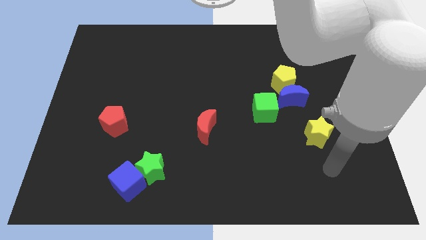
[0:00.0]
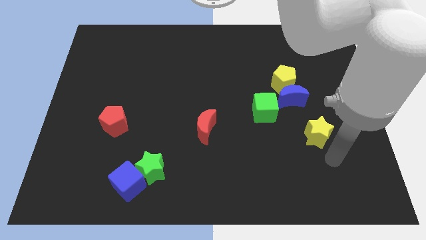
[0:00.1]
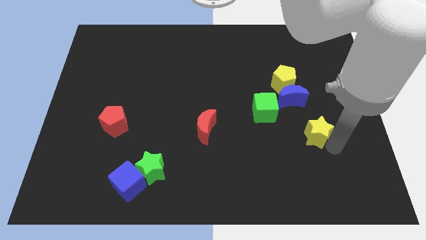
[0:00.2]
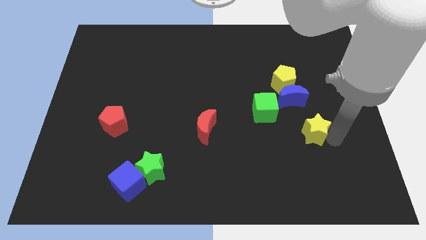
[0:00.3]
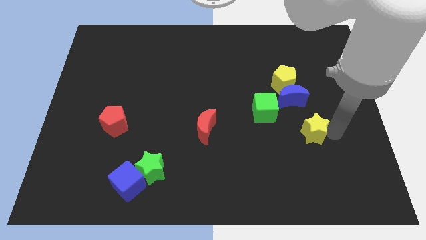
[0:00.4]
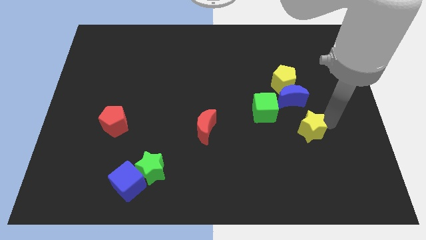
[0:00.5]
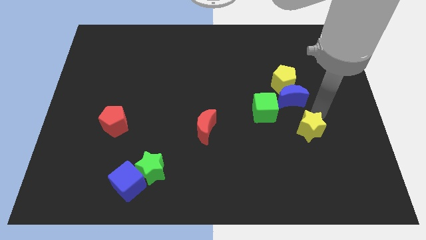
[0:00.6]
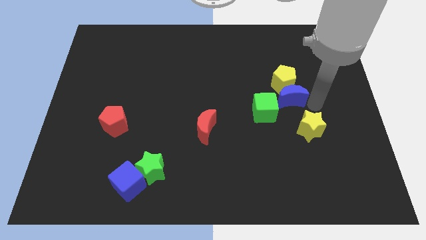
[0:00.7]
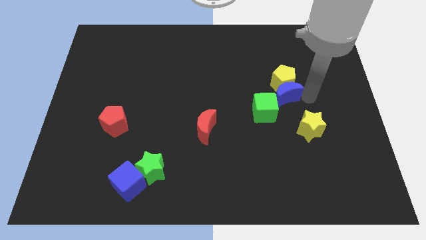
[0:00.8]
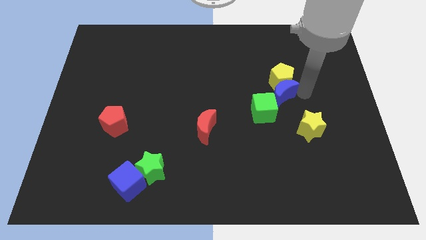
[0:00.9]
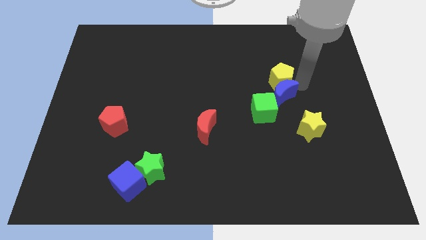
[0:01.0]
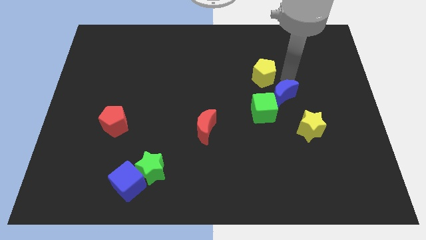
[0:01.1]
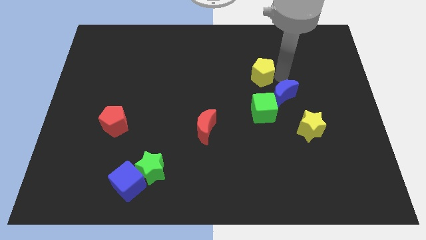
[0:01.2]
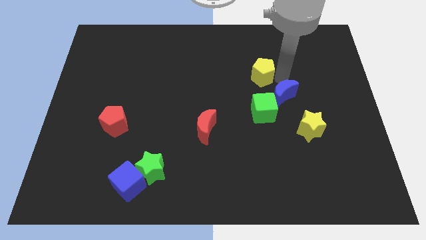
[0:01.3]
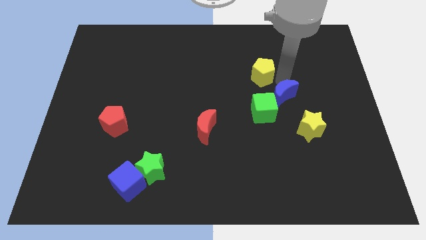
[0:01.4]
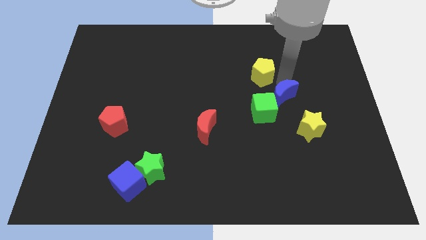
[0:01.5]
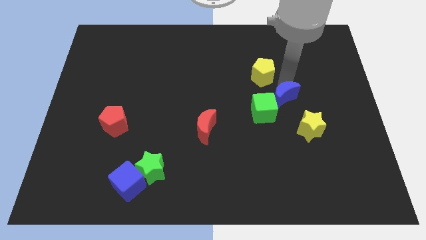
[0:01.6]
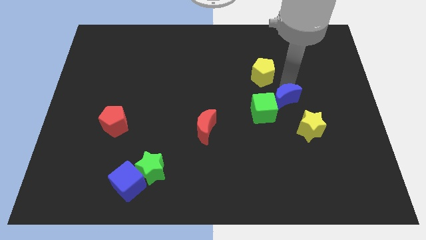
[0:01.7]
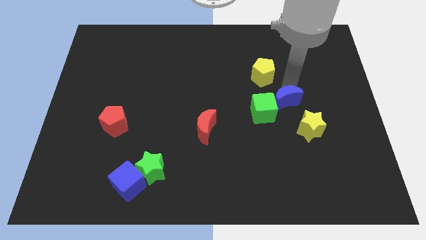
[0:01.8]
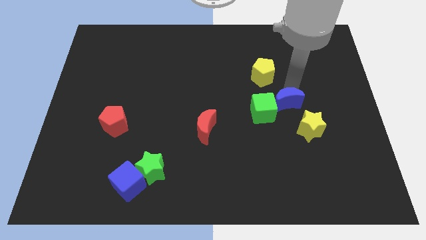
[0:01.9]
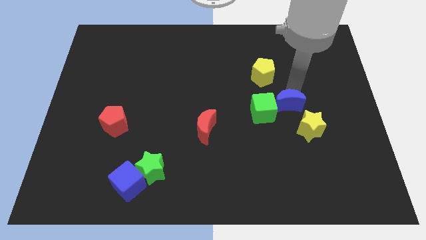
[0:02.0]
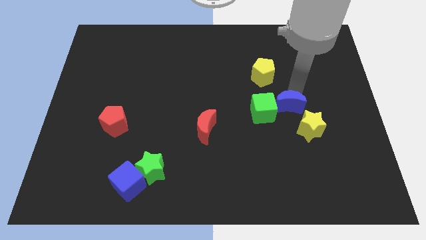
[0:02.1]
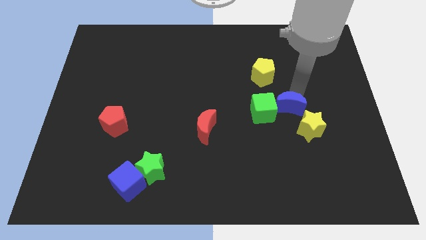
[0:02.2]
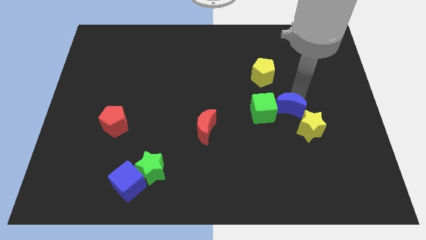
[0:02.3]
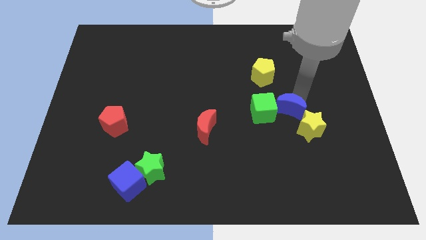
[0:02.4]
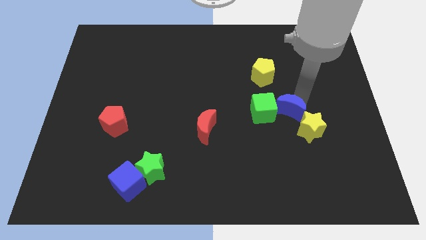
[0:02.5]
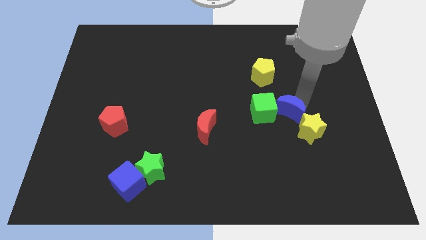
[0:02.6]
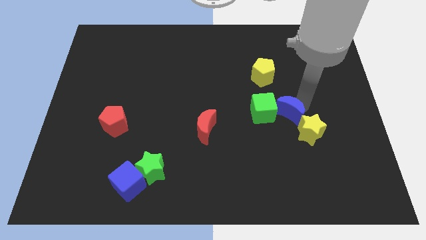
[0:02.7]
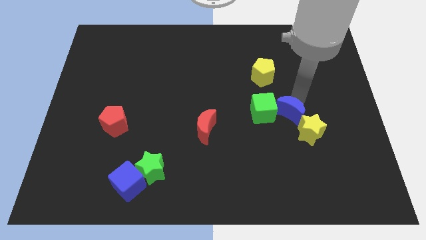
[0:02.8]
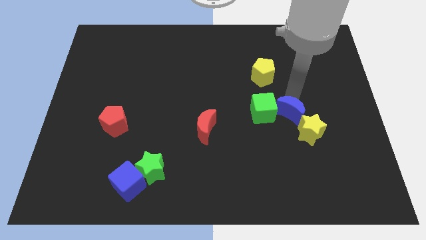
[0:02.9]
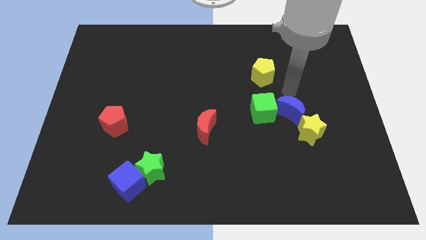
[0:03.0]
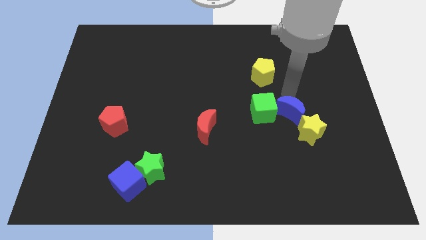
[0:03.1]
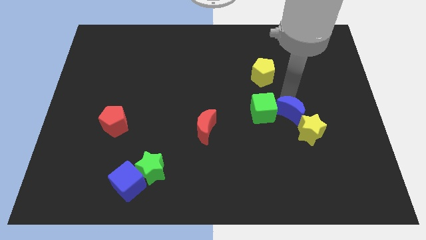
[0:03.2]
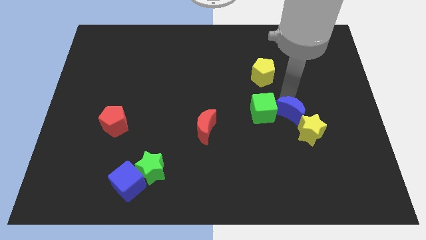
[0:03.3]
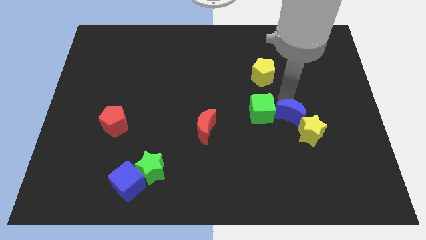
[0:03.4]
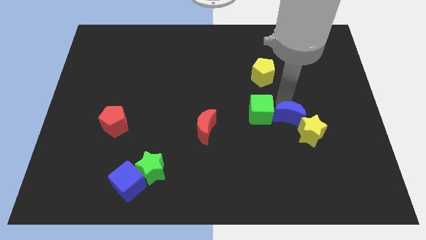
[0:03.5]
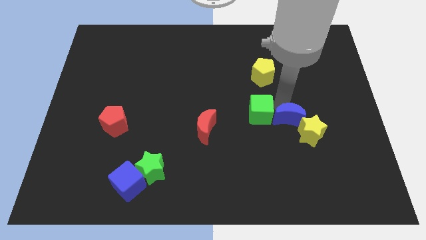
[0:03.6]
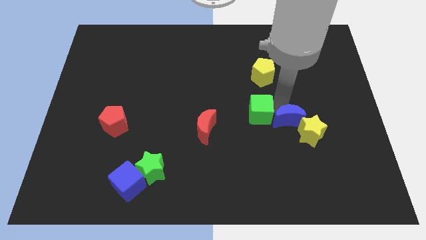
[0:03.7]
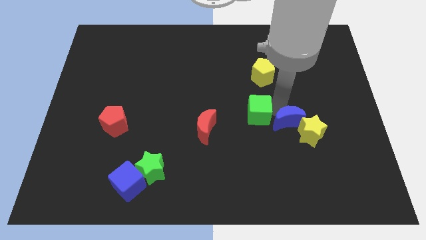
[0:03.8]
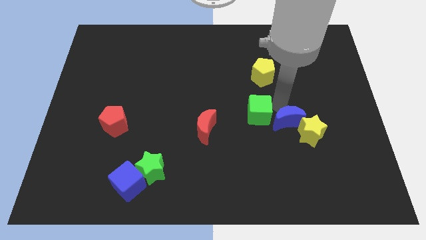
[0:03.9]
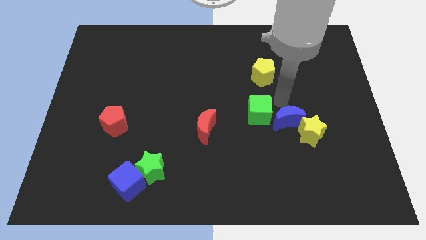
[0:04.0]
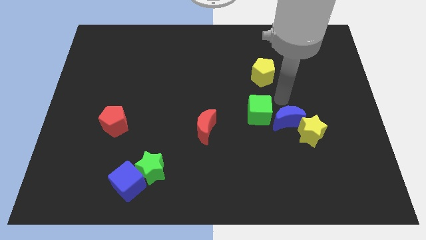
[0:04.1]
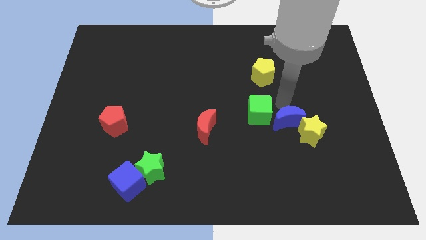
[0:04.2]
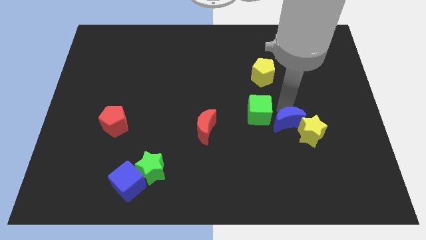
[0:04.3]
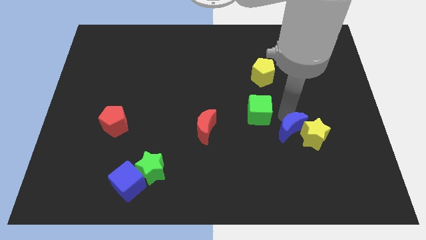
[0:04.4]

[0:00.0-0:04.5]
push the blue moon a little bit down

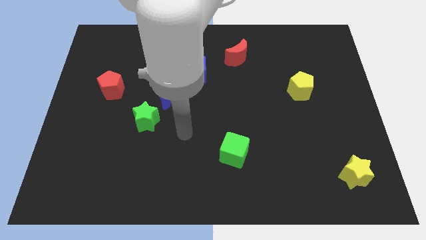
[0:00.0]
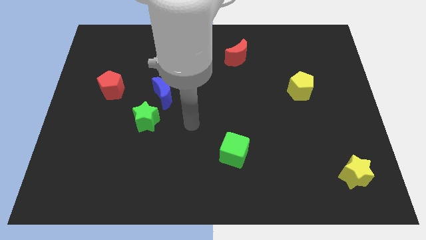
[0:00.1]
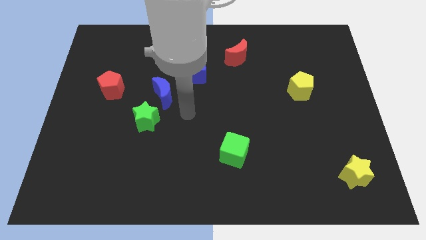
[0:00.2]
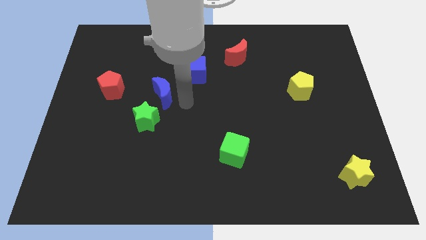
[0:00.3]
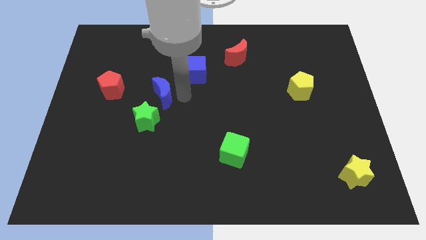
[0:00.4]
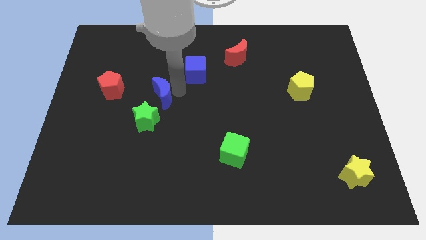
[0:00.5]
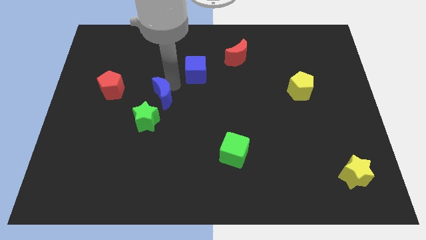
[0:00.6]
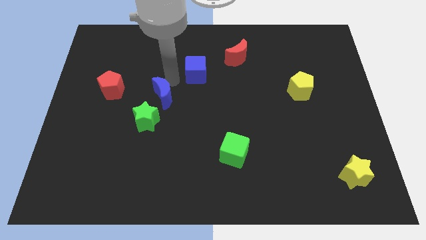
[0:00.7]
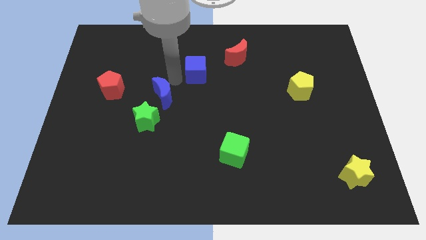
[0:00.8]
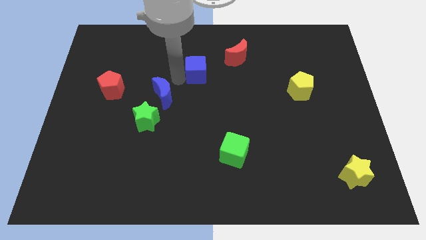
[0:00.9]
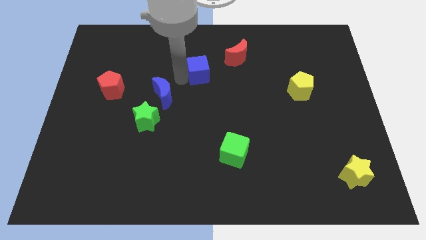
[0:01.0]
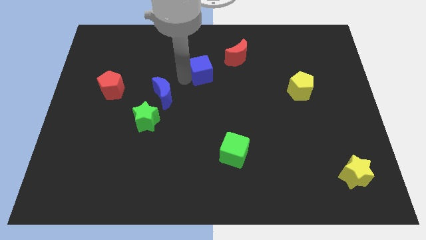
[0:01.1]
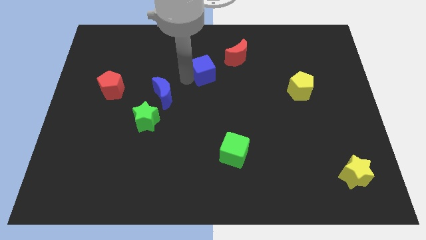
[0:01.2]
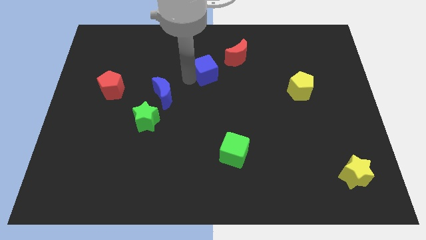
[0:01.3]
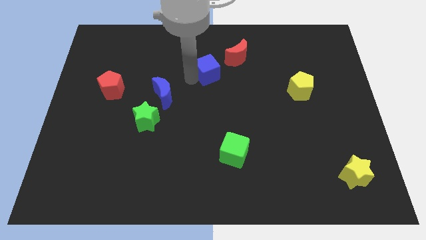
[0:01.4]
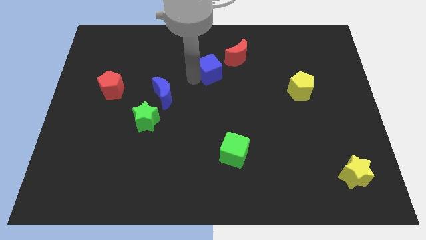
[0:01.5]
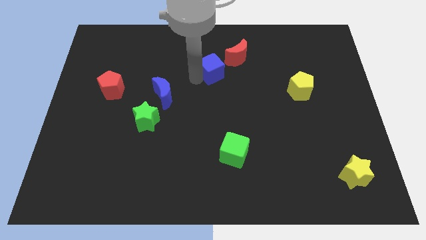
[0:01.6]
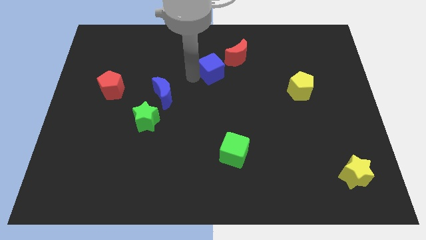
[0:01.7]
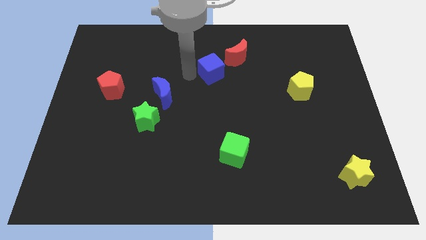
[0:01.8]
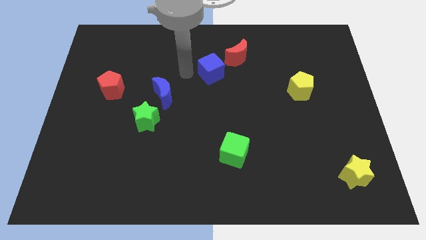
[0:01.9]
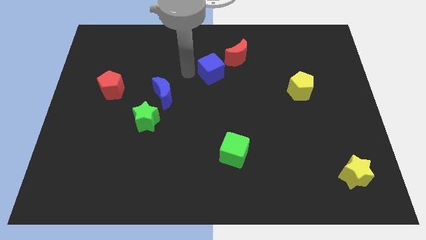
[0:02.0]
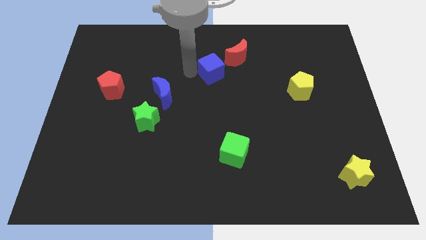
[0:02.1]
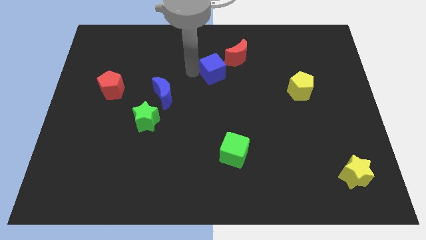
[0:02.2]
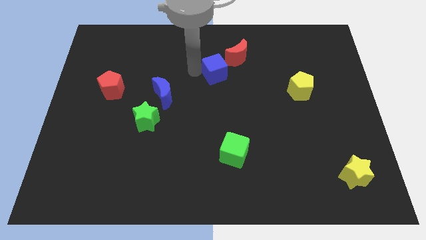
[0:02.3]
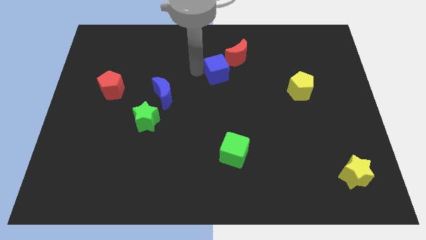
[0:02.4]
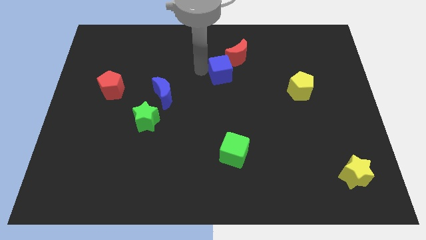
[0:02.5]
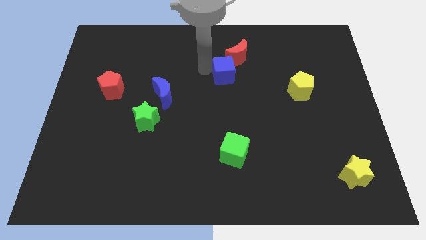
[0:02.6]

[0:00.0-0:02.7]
push the blue cube somewhat to the right

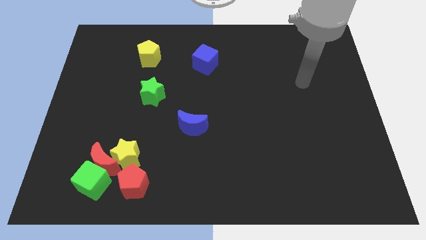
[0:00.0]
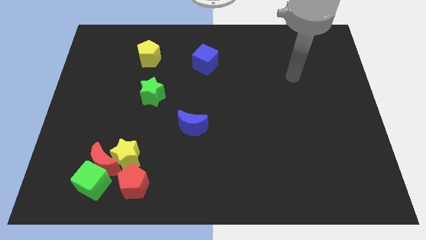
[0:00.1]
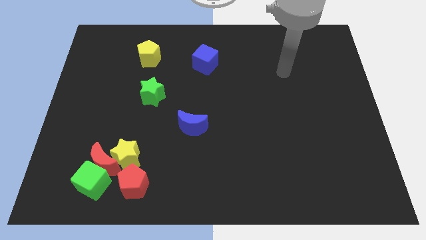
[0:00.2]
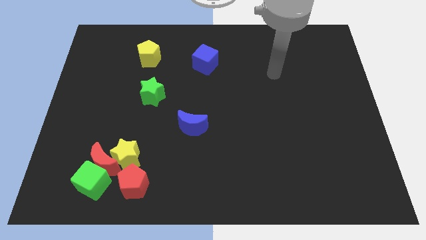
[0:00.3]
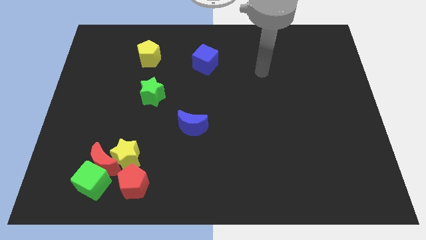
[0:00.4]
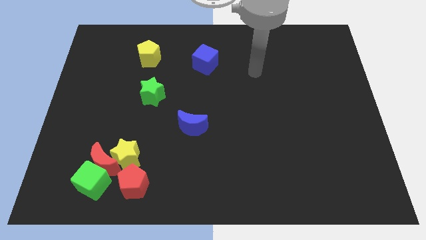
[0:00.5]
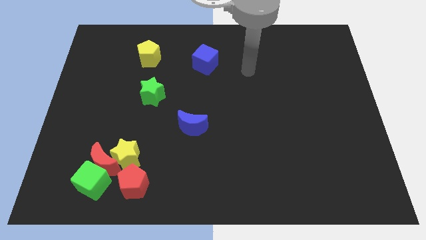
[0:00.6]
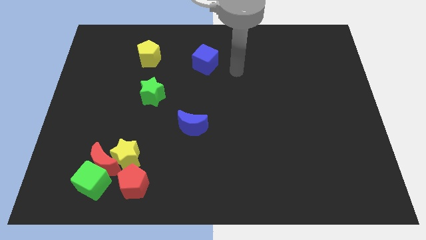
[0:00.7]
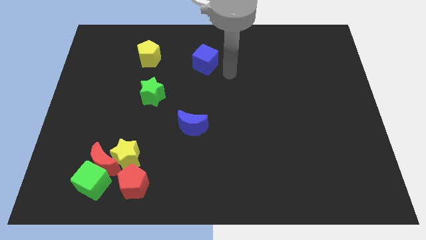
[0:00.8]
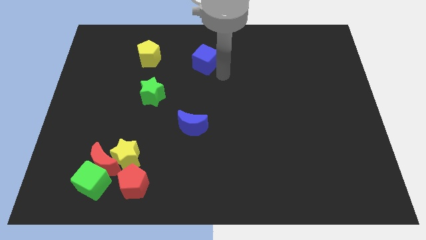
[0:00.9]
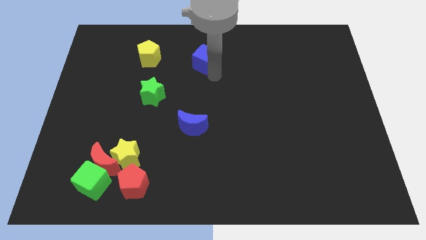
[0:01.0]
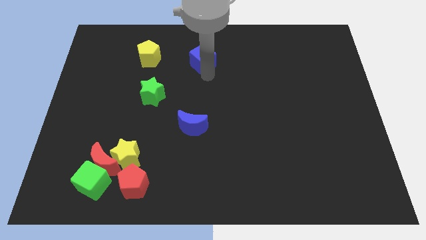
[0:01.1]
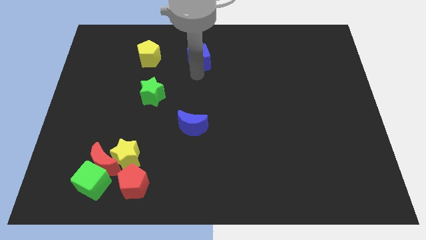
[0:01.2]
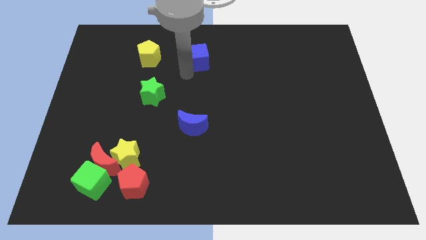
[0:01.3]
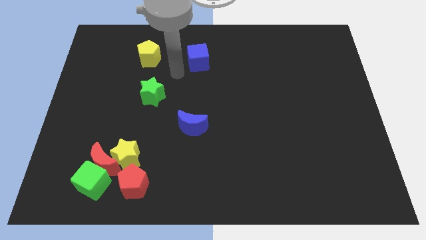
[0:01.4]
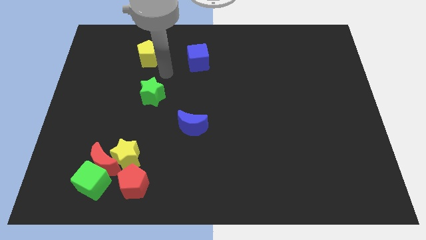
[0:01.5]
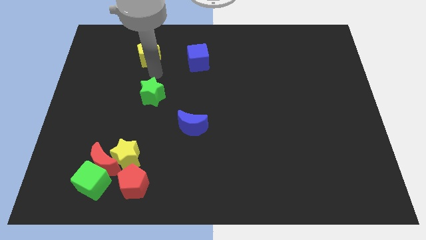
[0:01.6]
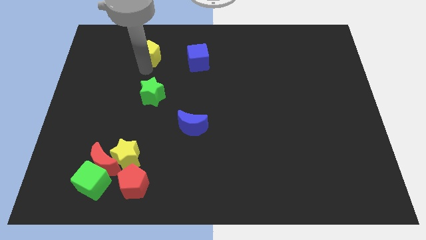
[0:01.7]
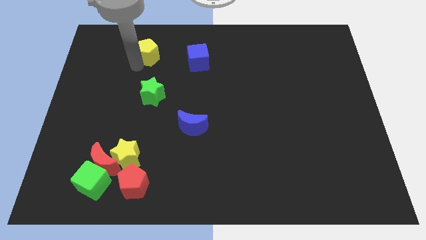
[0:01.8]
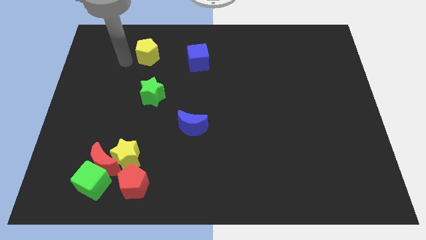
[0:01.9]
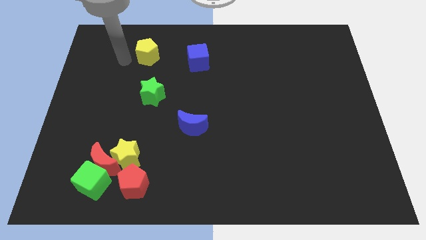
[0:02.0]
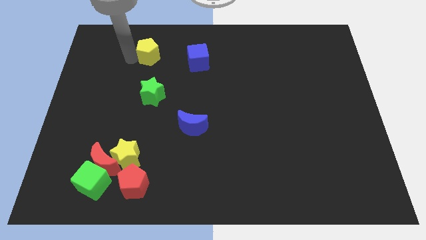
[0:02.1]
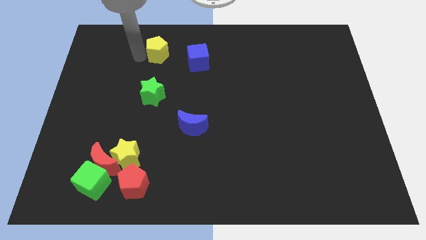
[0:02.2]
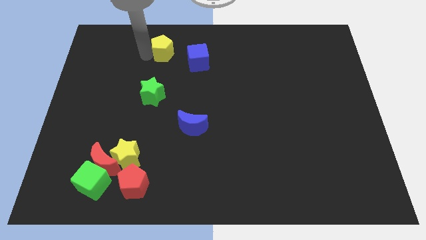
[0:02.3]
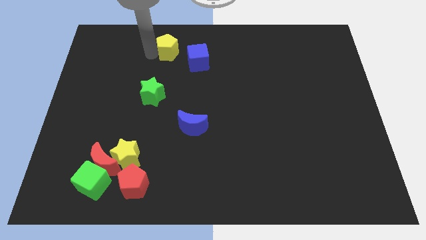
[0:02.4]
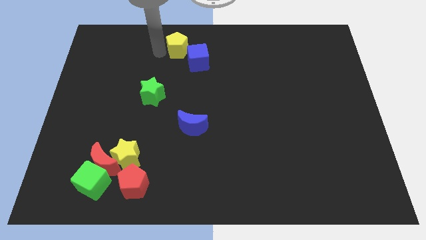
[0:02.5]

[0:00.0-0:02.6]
push the yellow pentagon a little right
